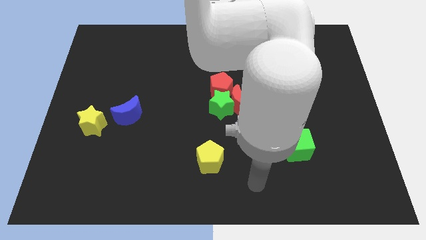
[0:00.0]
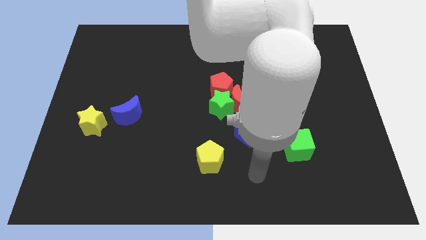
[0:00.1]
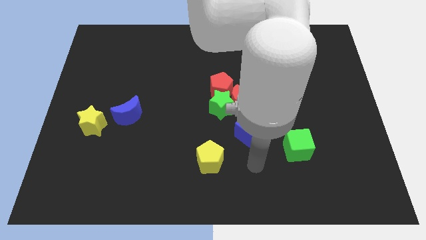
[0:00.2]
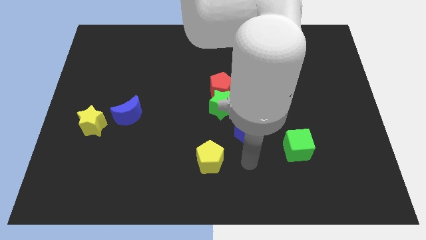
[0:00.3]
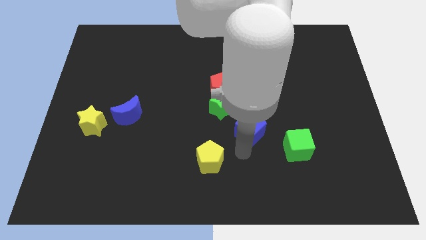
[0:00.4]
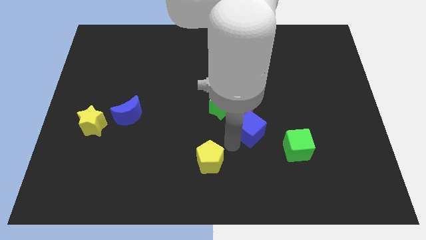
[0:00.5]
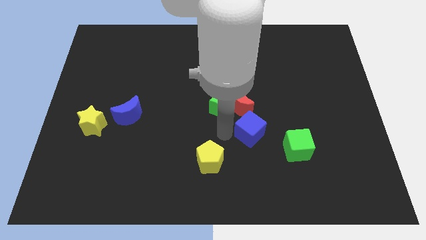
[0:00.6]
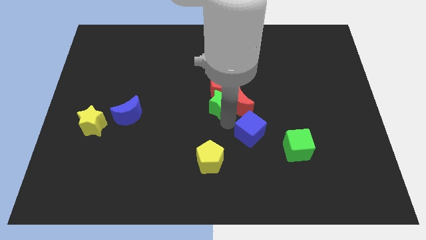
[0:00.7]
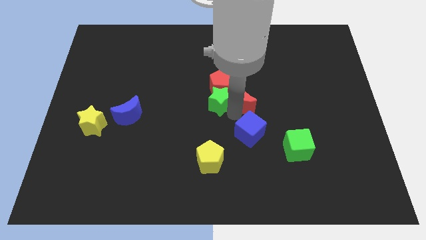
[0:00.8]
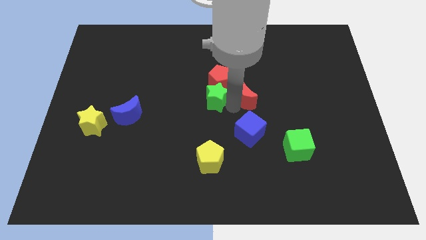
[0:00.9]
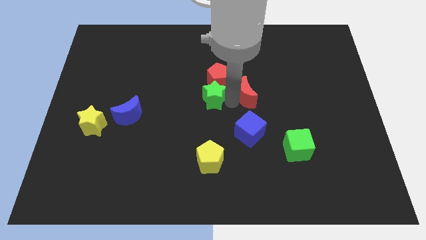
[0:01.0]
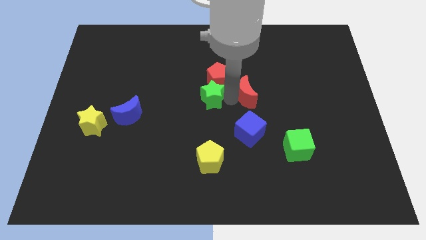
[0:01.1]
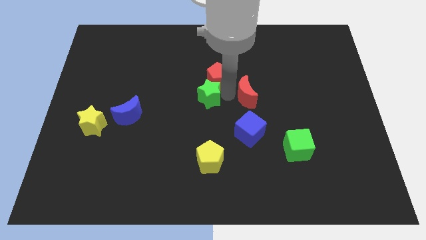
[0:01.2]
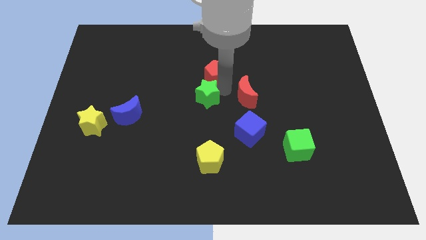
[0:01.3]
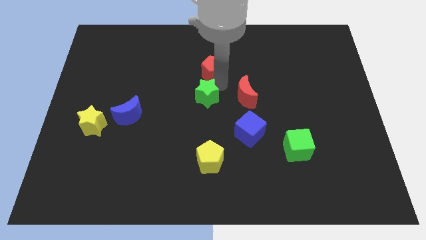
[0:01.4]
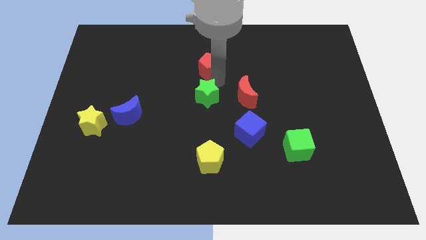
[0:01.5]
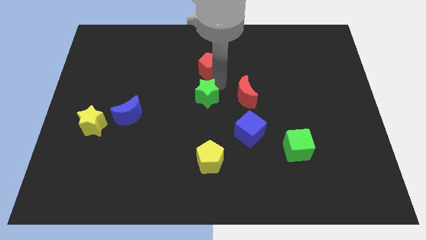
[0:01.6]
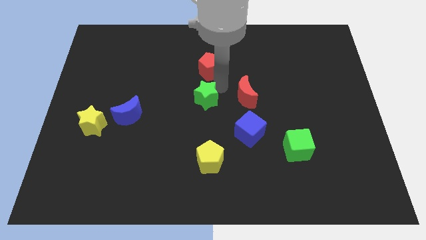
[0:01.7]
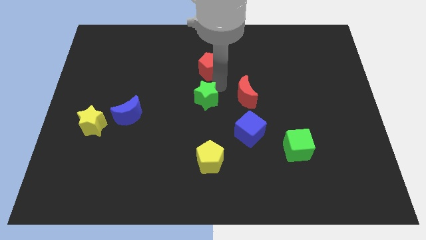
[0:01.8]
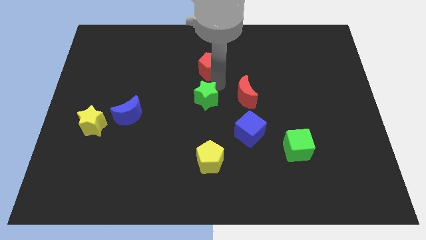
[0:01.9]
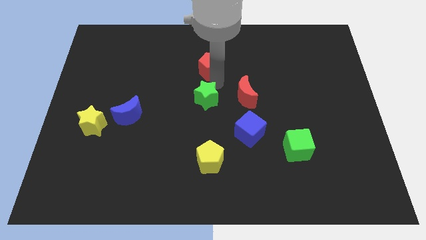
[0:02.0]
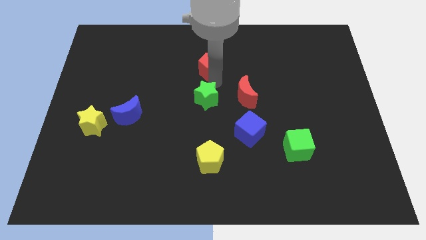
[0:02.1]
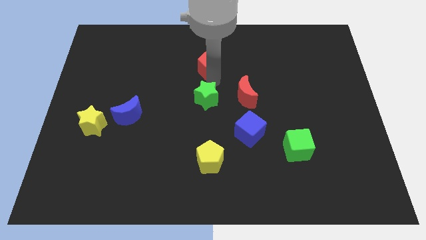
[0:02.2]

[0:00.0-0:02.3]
move the red pentagon away from the green star and red moon

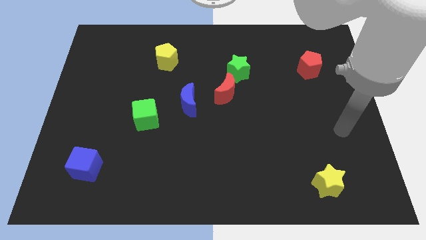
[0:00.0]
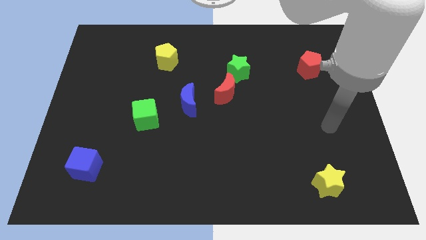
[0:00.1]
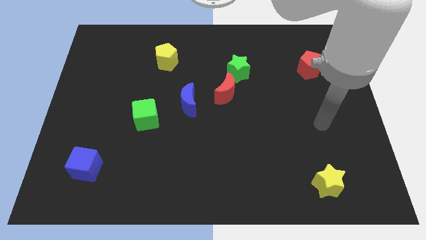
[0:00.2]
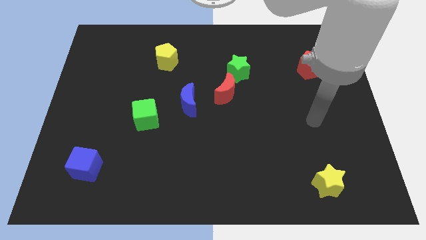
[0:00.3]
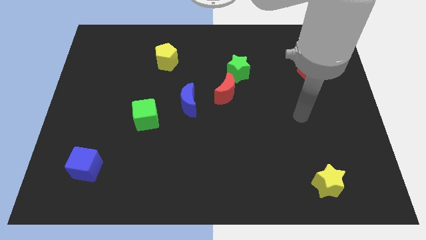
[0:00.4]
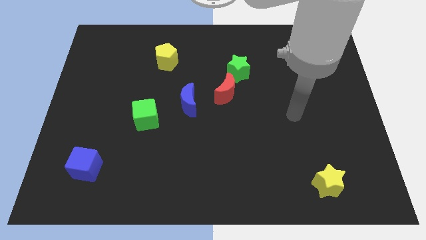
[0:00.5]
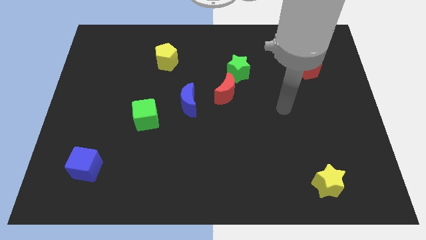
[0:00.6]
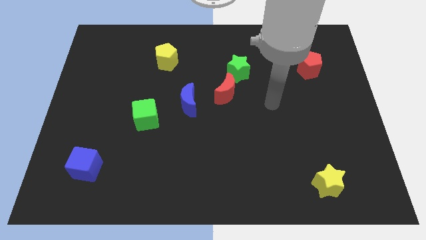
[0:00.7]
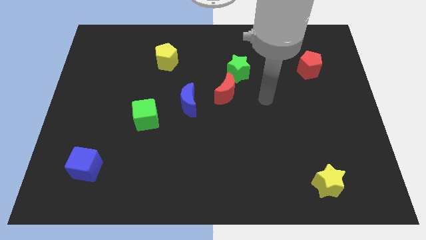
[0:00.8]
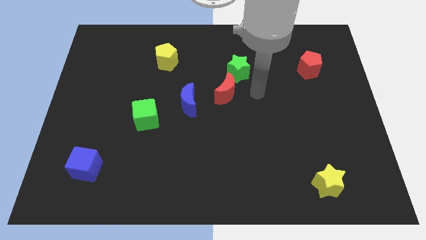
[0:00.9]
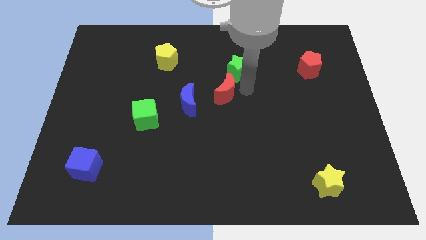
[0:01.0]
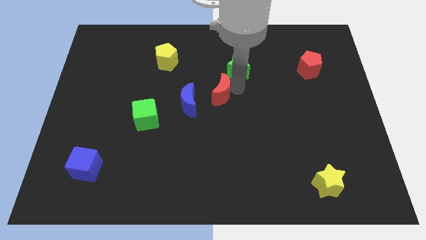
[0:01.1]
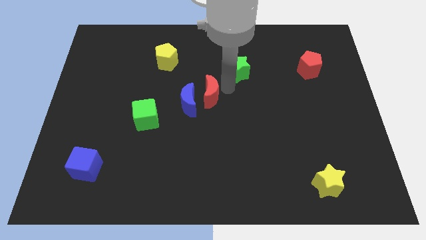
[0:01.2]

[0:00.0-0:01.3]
separate the green star from the red moon

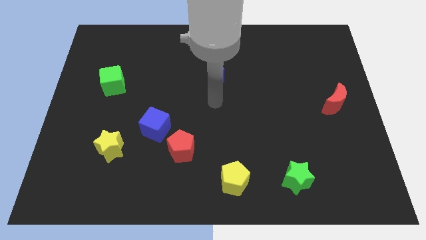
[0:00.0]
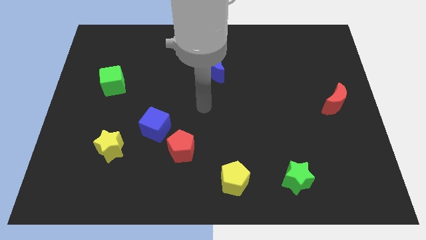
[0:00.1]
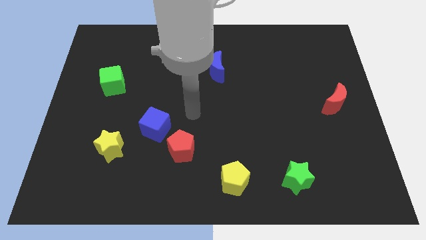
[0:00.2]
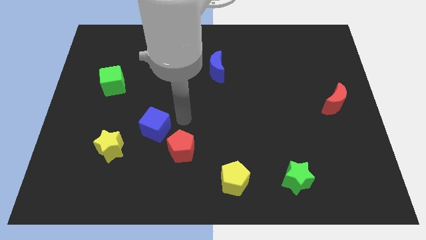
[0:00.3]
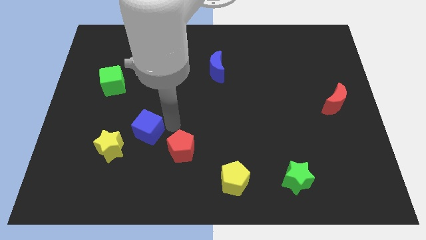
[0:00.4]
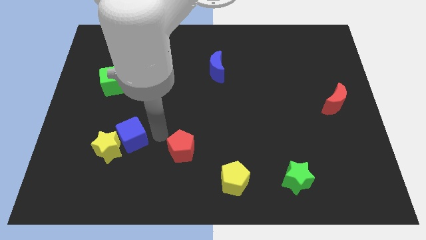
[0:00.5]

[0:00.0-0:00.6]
separate the red pentagon from the blue cube

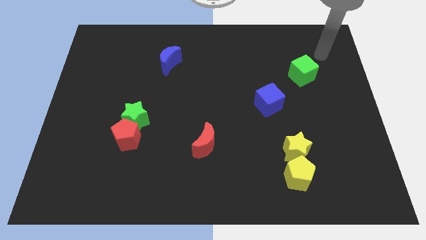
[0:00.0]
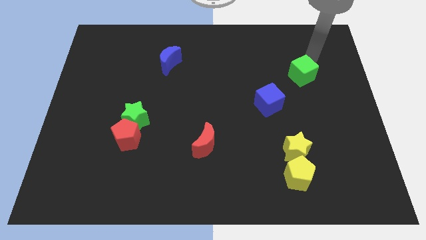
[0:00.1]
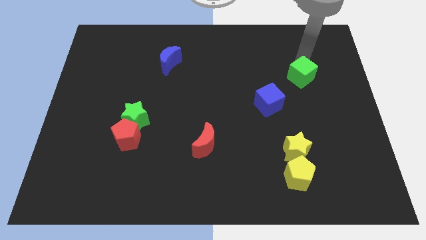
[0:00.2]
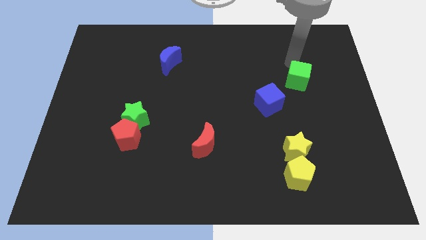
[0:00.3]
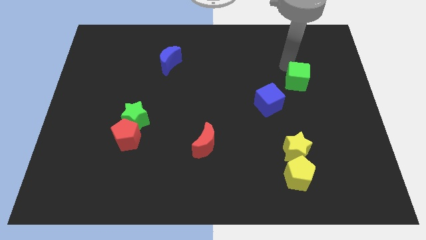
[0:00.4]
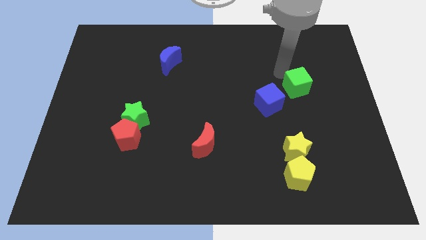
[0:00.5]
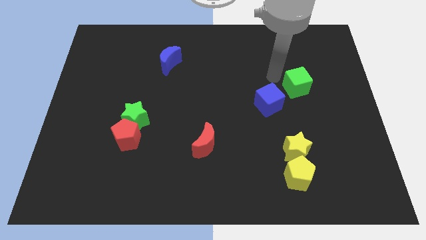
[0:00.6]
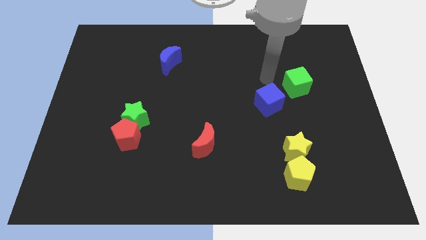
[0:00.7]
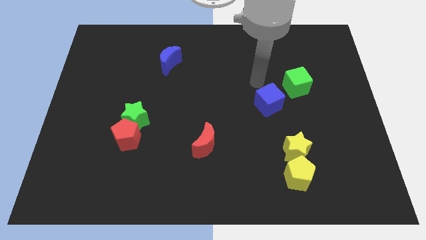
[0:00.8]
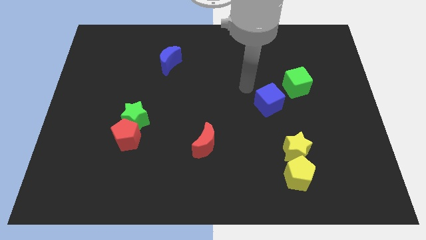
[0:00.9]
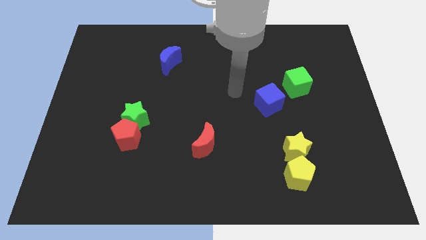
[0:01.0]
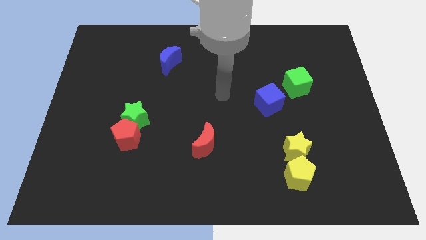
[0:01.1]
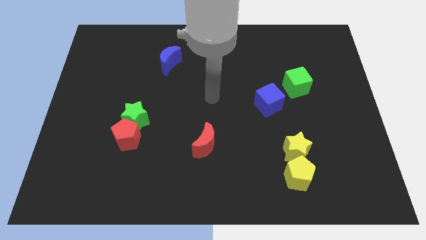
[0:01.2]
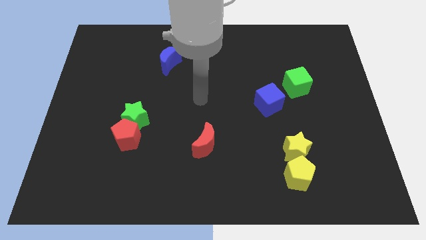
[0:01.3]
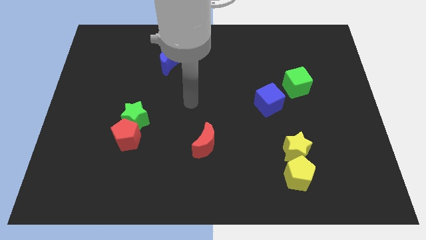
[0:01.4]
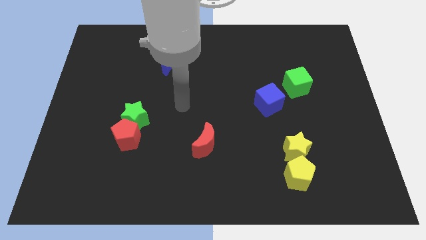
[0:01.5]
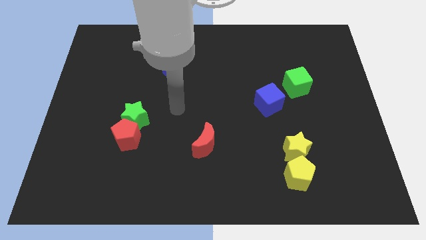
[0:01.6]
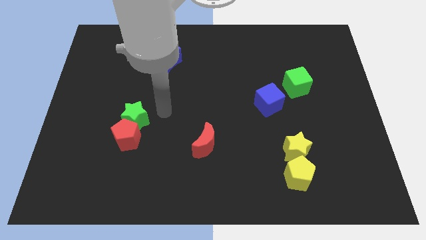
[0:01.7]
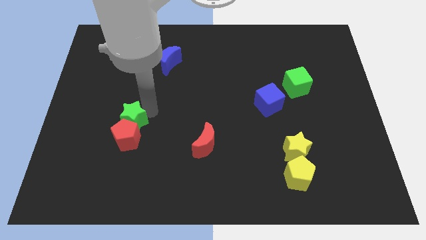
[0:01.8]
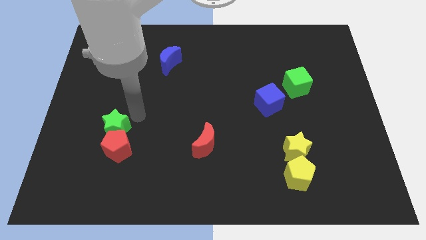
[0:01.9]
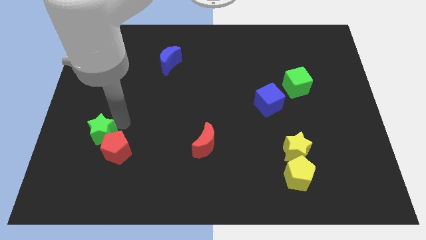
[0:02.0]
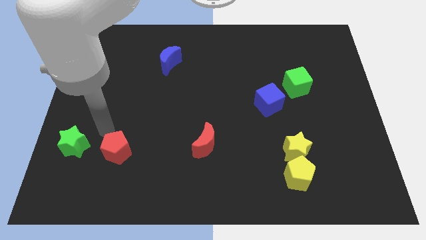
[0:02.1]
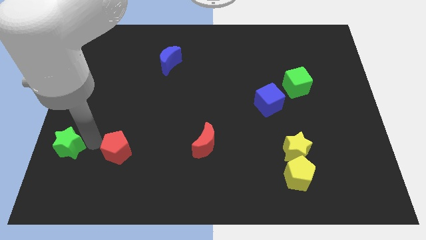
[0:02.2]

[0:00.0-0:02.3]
pull the red pentagon apart from the green star

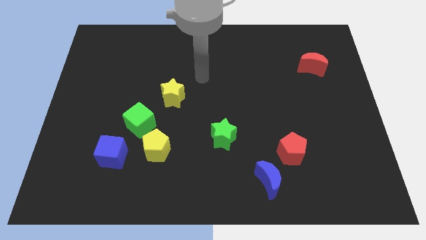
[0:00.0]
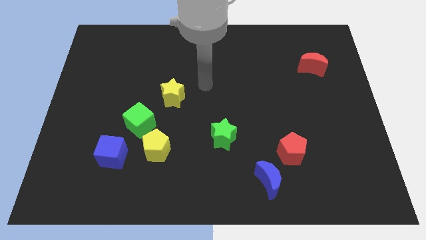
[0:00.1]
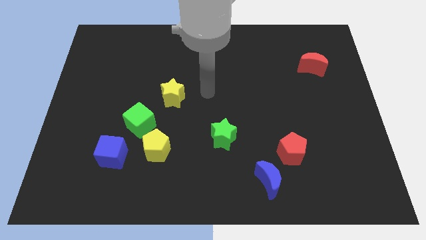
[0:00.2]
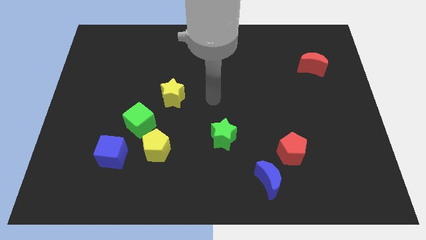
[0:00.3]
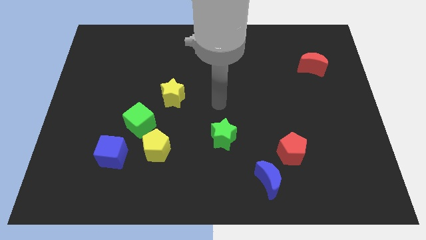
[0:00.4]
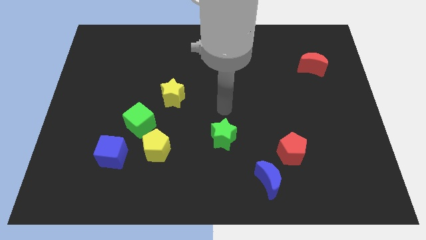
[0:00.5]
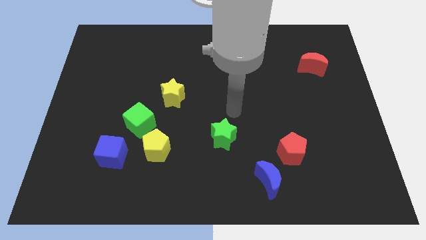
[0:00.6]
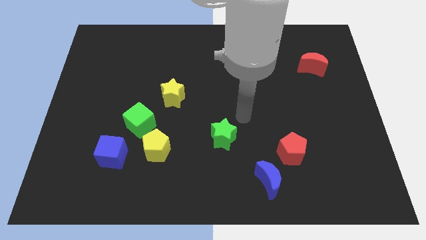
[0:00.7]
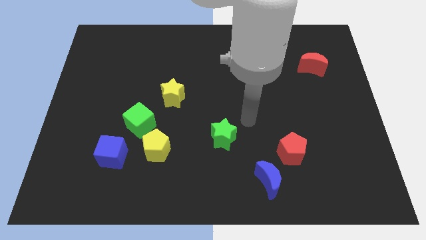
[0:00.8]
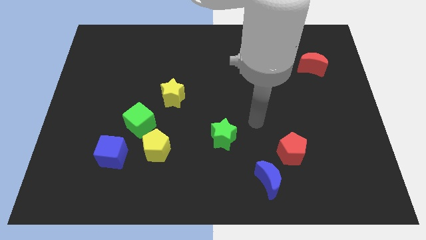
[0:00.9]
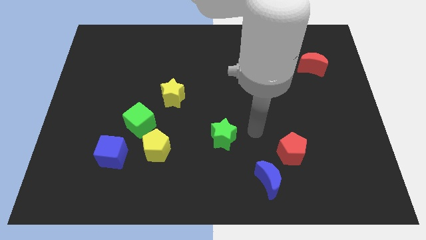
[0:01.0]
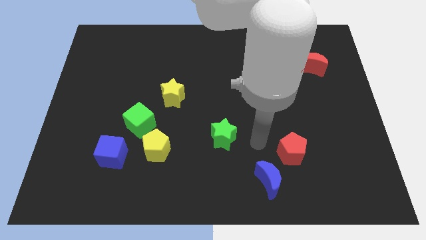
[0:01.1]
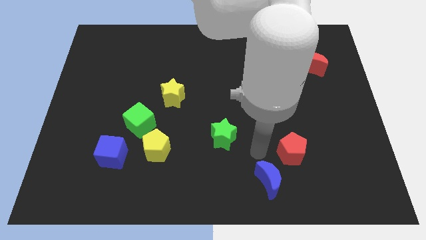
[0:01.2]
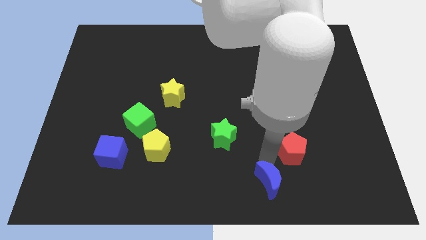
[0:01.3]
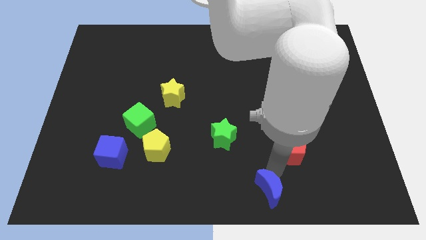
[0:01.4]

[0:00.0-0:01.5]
separate the red pentagon from the blue moon

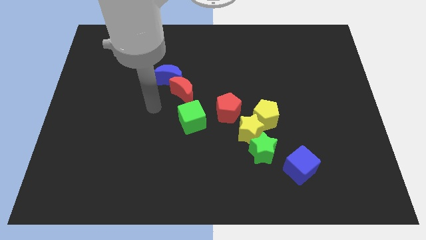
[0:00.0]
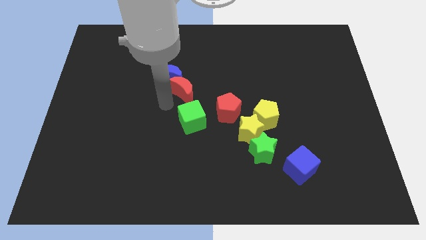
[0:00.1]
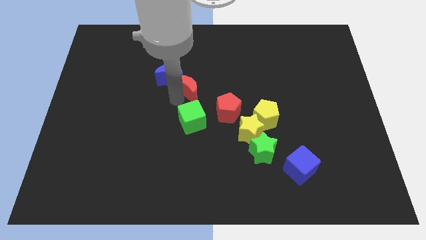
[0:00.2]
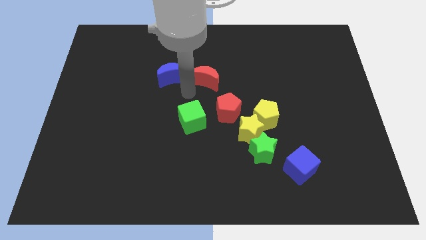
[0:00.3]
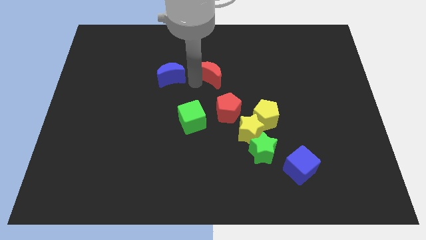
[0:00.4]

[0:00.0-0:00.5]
separate the blue moon from the red moon

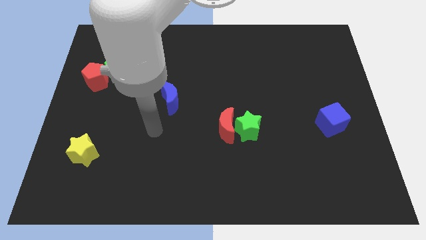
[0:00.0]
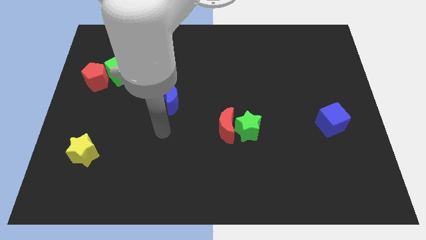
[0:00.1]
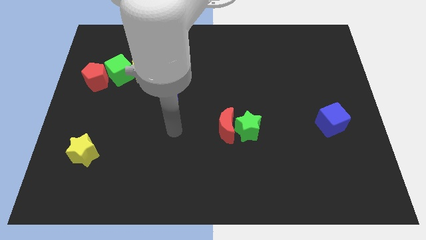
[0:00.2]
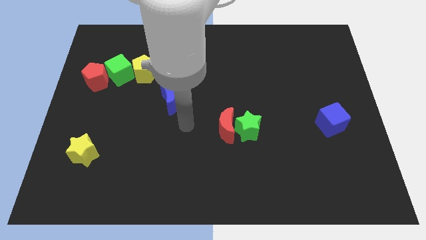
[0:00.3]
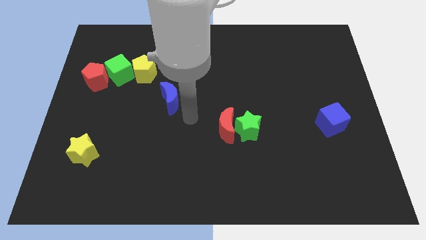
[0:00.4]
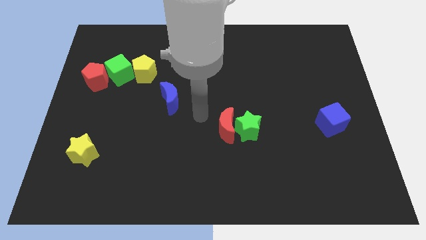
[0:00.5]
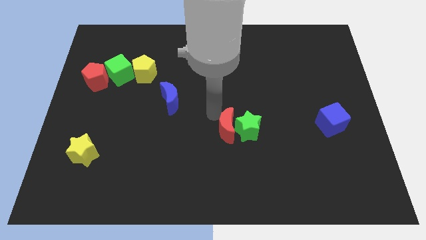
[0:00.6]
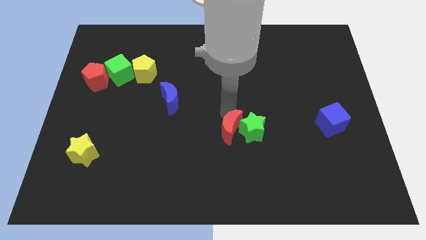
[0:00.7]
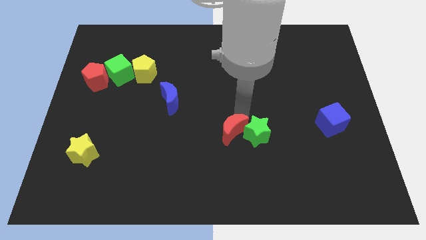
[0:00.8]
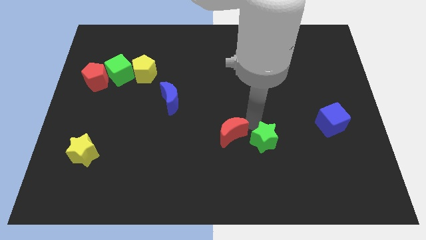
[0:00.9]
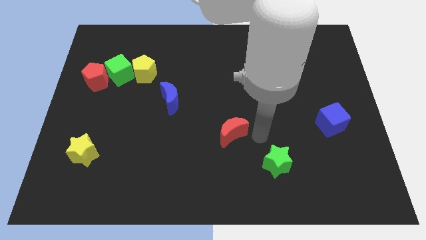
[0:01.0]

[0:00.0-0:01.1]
separate the red moon from the green star
